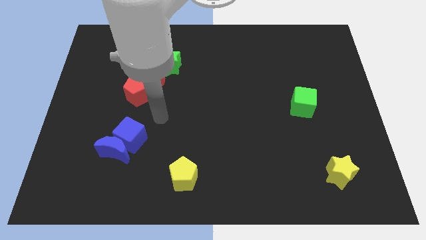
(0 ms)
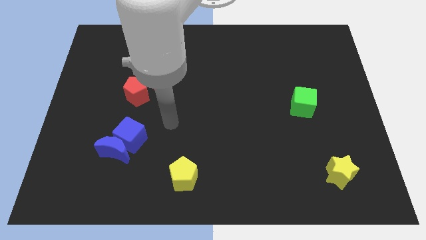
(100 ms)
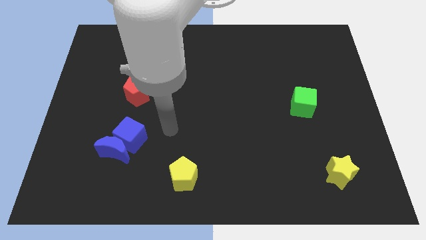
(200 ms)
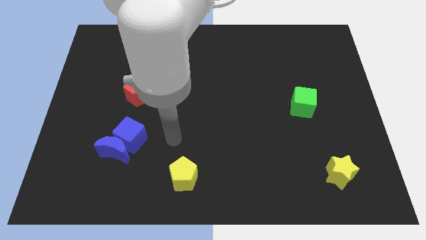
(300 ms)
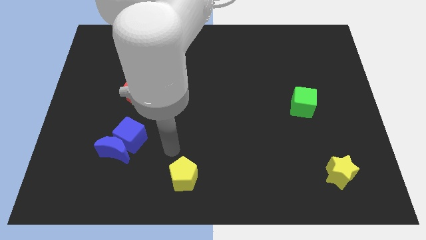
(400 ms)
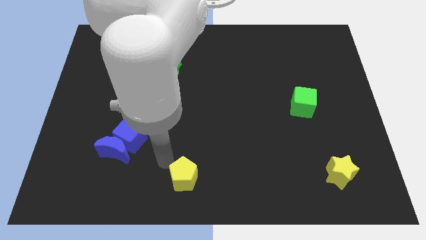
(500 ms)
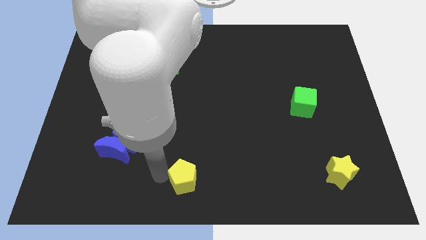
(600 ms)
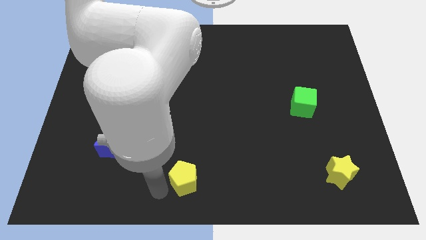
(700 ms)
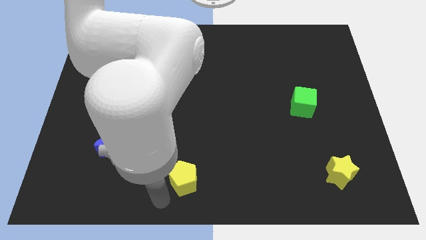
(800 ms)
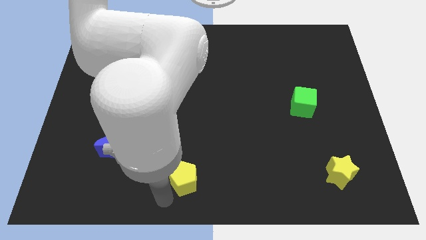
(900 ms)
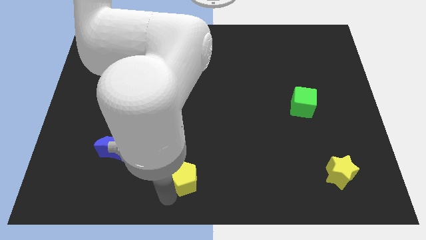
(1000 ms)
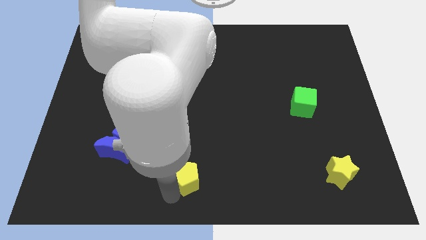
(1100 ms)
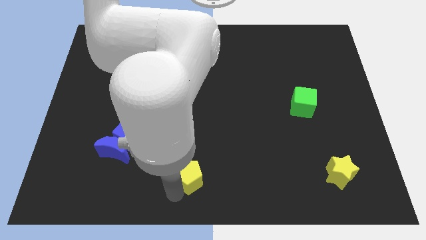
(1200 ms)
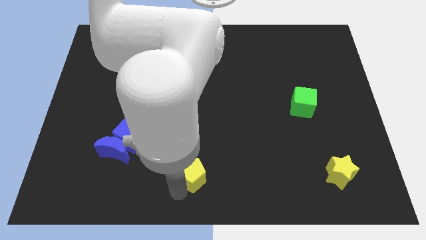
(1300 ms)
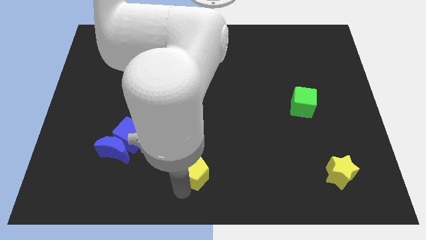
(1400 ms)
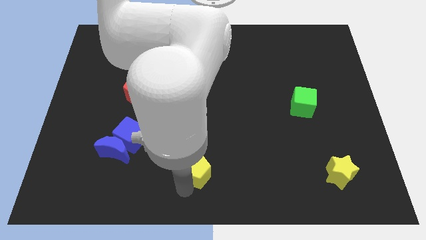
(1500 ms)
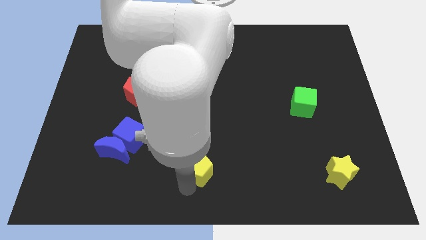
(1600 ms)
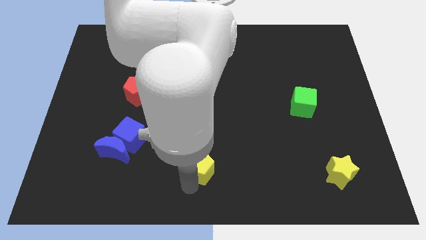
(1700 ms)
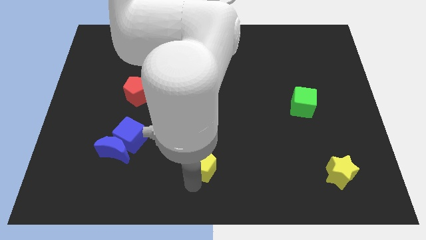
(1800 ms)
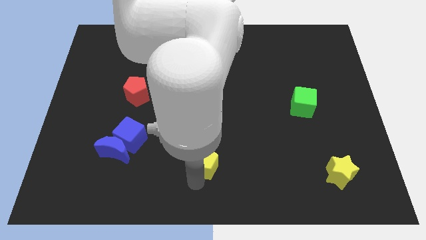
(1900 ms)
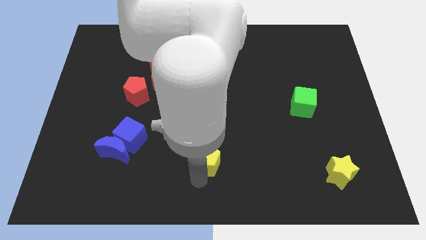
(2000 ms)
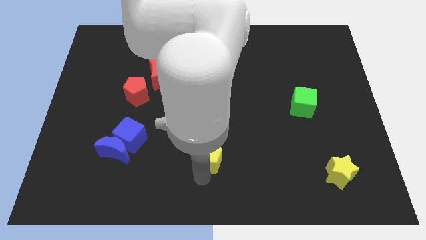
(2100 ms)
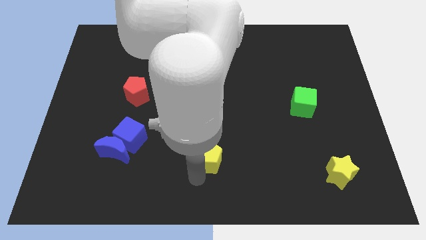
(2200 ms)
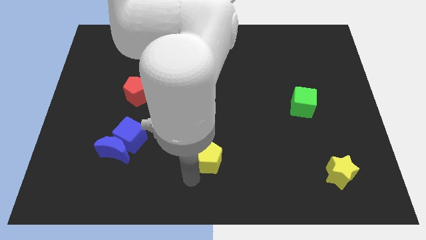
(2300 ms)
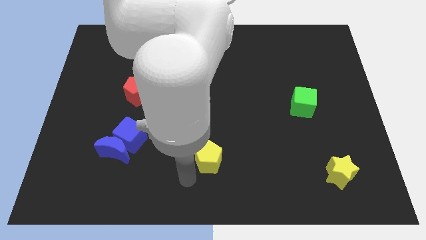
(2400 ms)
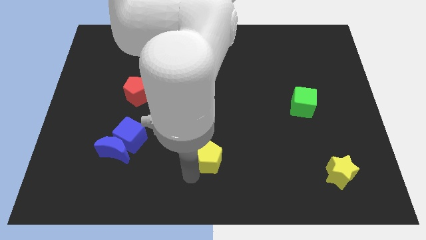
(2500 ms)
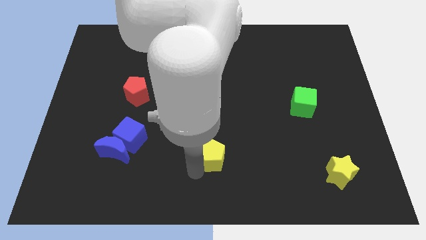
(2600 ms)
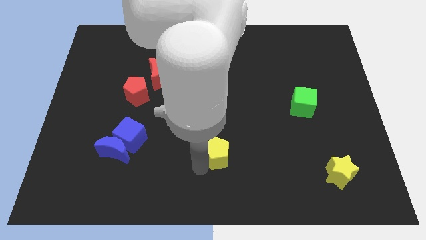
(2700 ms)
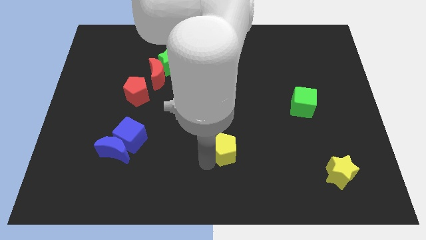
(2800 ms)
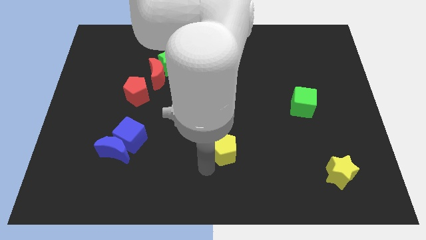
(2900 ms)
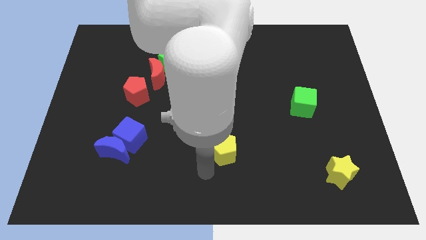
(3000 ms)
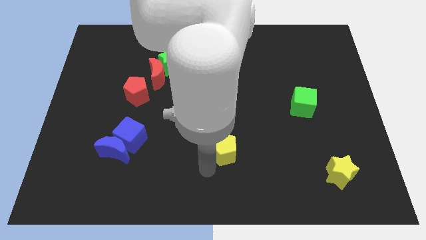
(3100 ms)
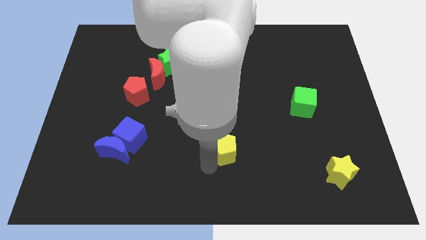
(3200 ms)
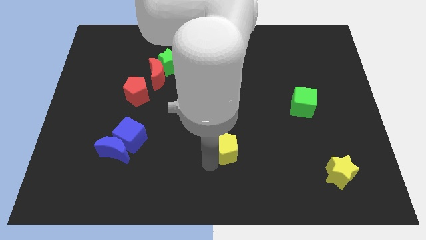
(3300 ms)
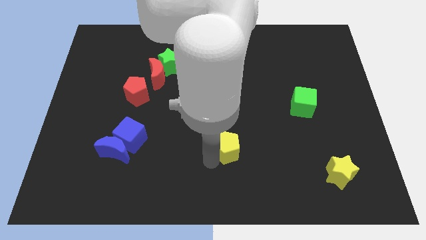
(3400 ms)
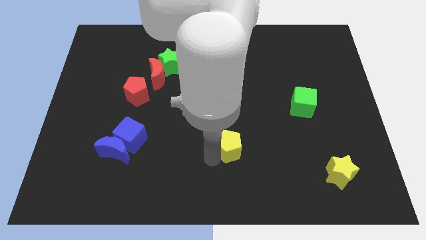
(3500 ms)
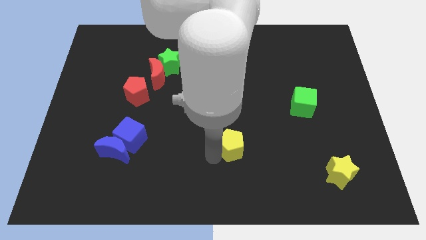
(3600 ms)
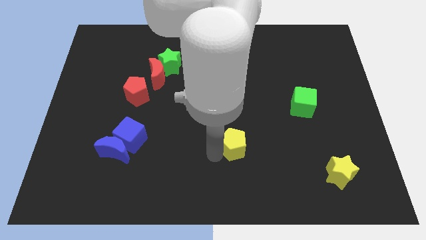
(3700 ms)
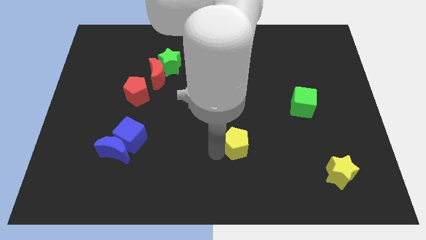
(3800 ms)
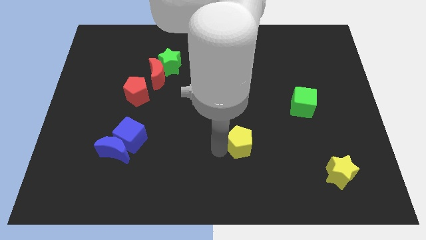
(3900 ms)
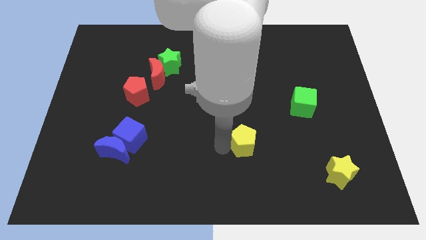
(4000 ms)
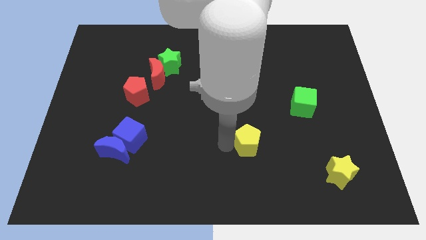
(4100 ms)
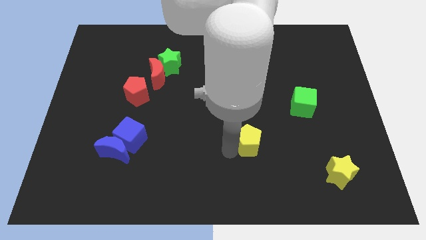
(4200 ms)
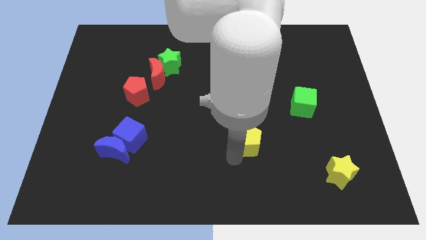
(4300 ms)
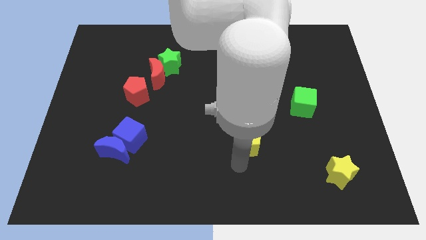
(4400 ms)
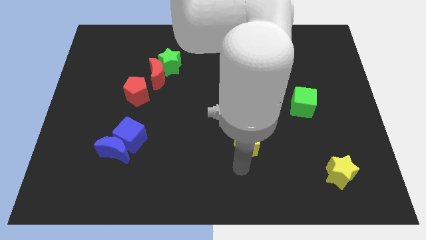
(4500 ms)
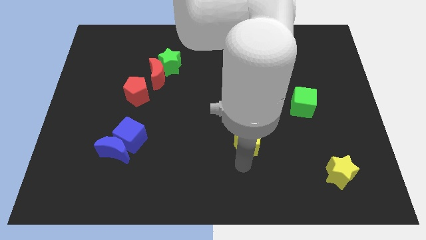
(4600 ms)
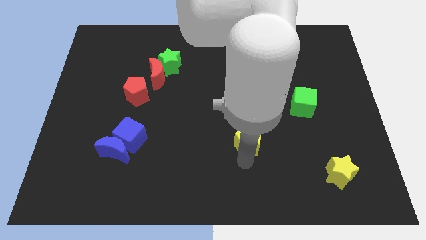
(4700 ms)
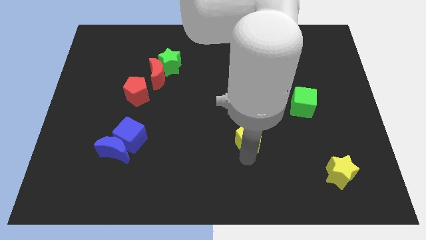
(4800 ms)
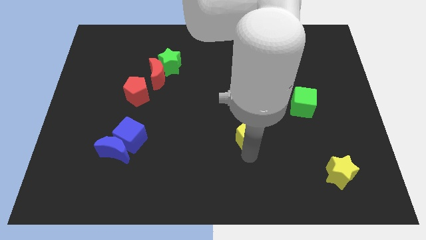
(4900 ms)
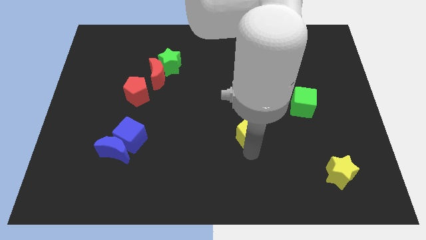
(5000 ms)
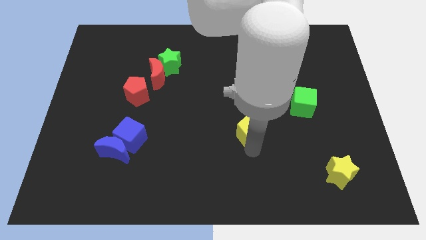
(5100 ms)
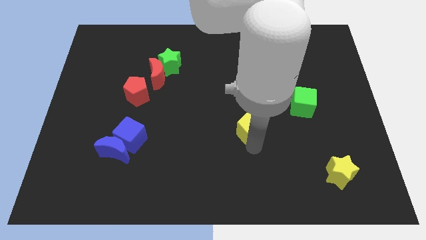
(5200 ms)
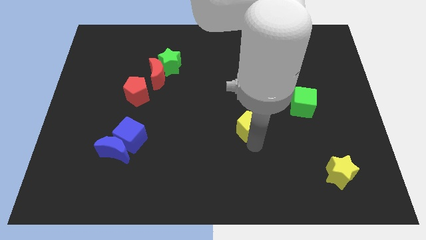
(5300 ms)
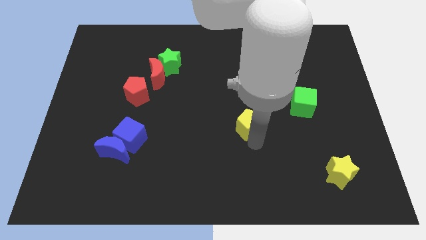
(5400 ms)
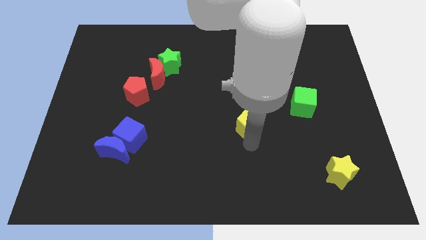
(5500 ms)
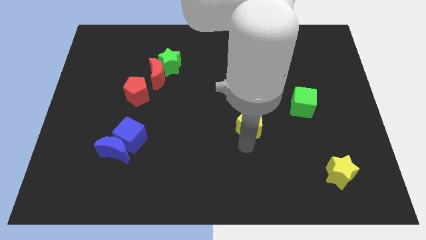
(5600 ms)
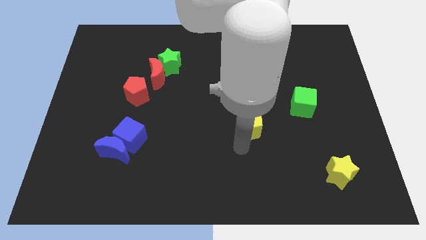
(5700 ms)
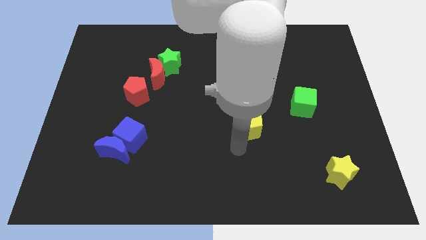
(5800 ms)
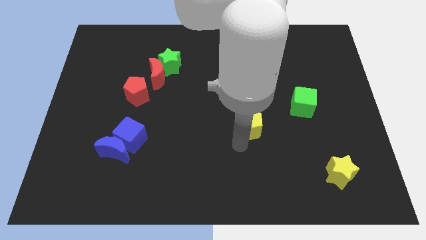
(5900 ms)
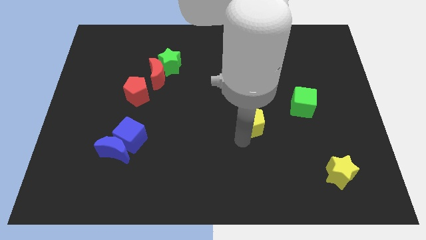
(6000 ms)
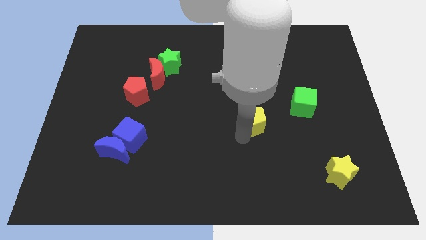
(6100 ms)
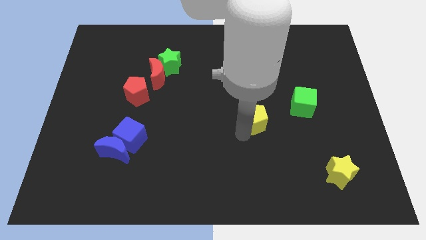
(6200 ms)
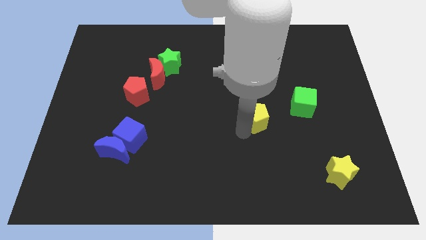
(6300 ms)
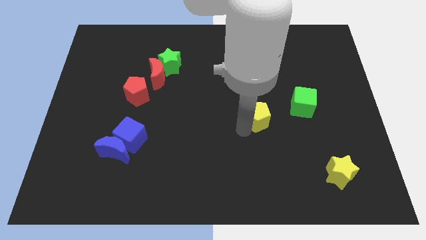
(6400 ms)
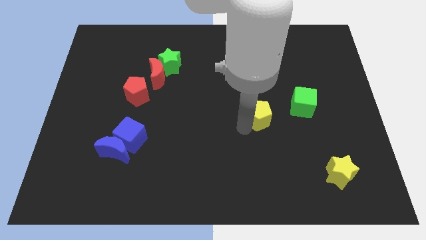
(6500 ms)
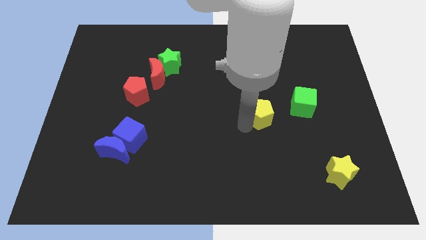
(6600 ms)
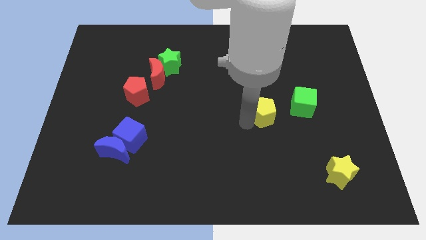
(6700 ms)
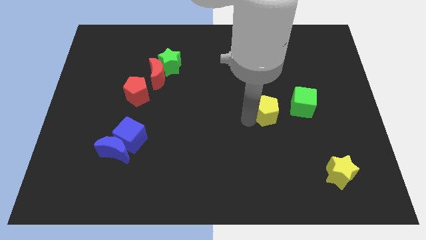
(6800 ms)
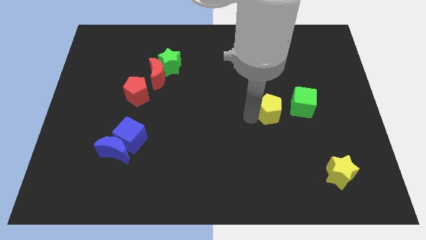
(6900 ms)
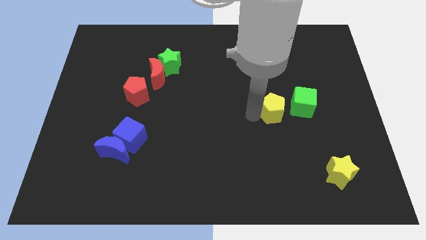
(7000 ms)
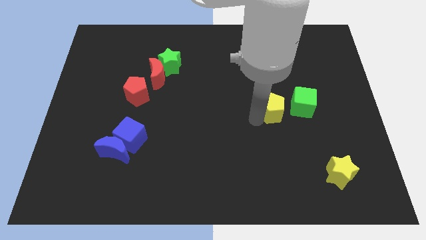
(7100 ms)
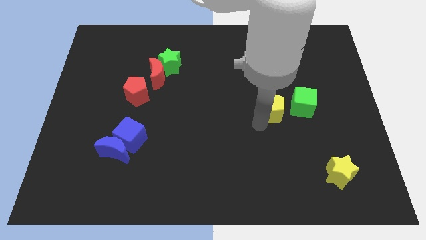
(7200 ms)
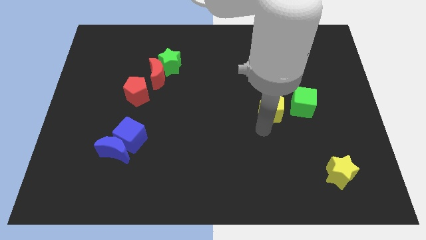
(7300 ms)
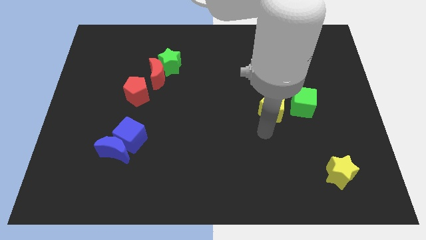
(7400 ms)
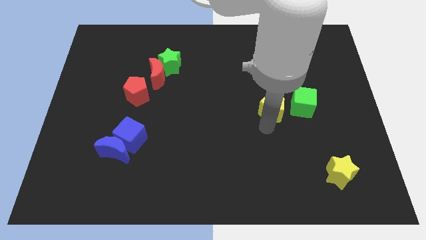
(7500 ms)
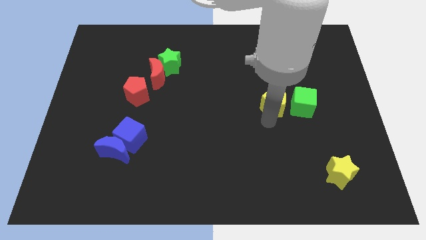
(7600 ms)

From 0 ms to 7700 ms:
push the yellow pentagon diagonally up and to the left of the green cube
